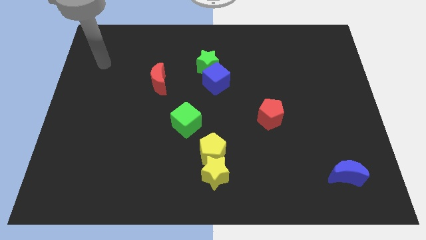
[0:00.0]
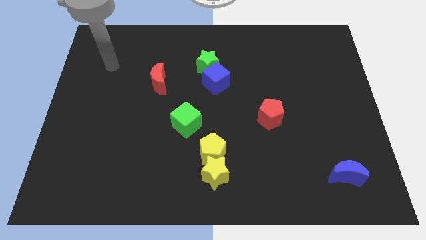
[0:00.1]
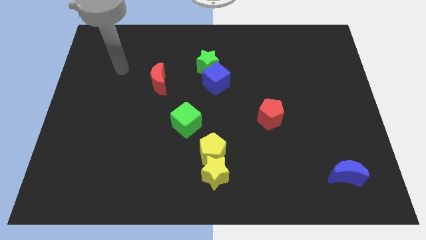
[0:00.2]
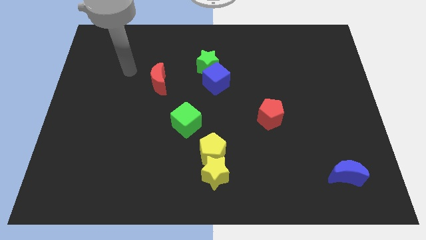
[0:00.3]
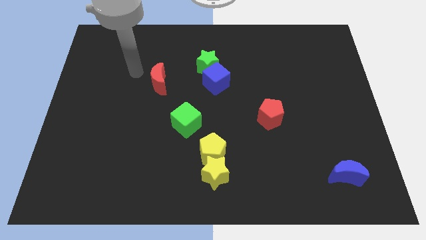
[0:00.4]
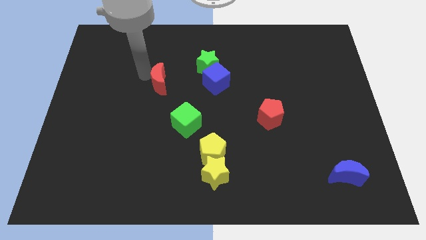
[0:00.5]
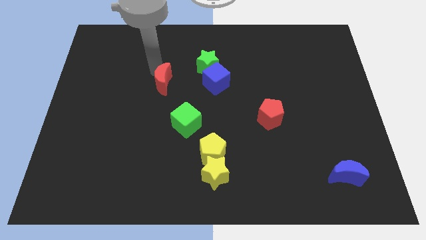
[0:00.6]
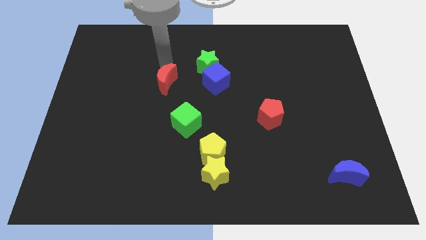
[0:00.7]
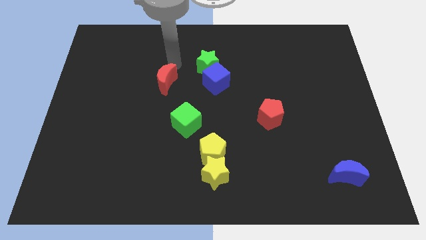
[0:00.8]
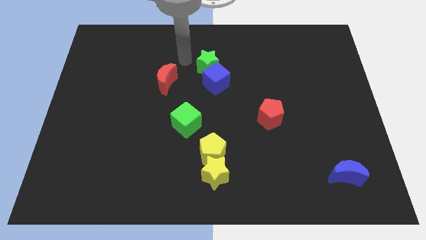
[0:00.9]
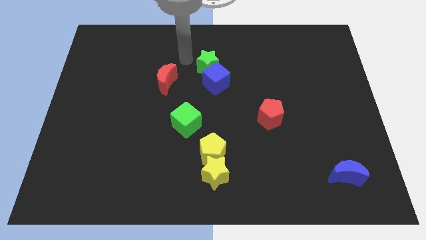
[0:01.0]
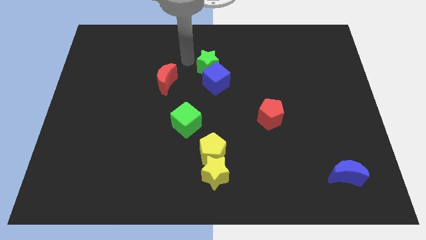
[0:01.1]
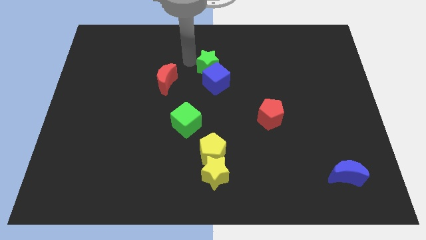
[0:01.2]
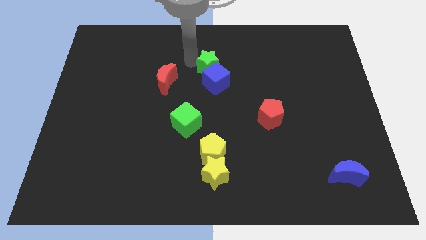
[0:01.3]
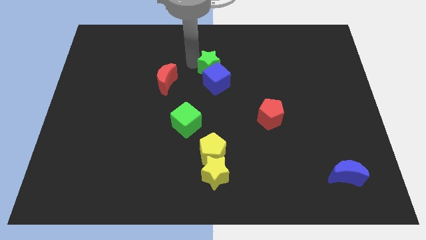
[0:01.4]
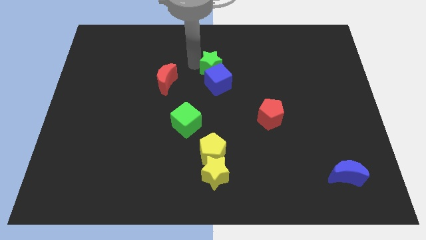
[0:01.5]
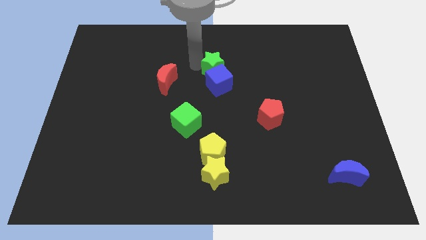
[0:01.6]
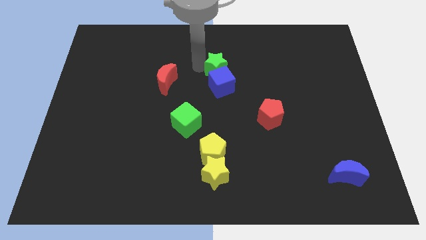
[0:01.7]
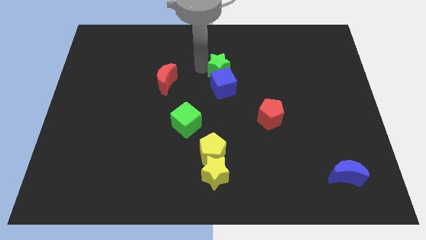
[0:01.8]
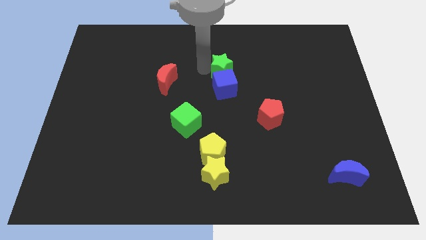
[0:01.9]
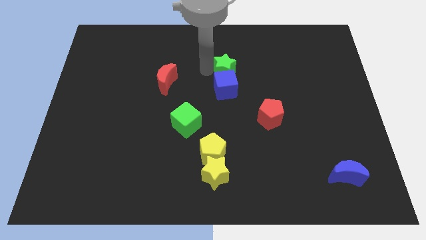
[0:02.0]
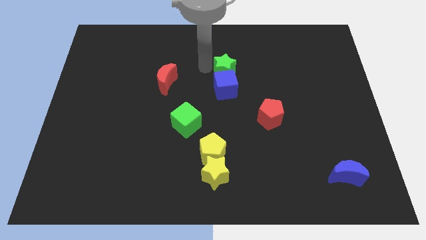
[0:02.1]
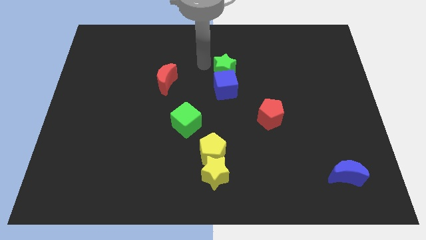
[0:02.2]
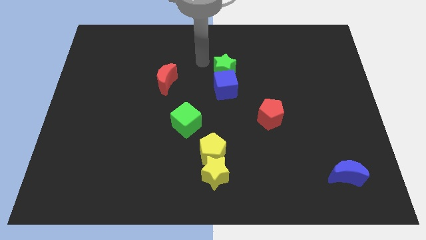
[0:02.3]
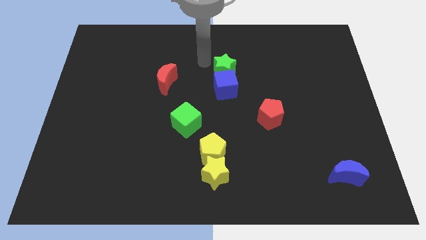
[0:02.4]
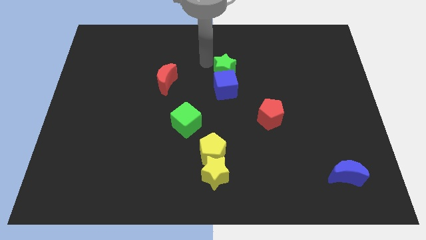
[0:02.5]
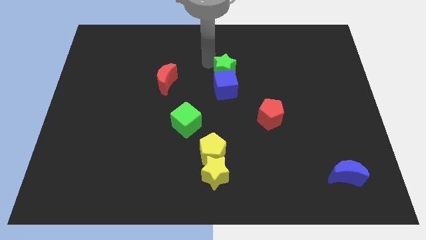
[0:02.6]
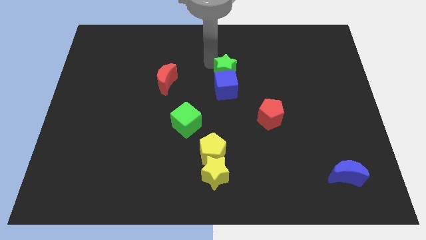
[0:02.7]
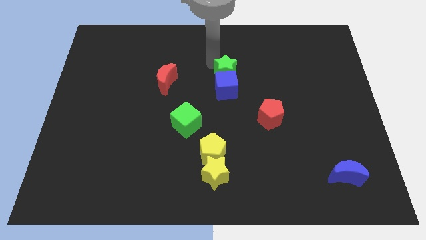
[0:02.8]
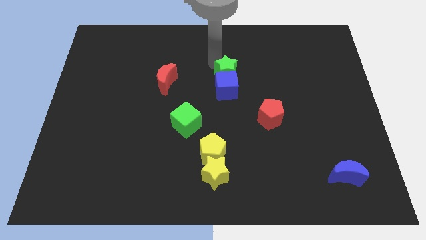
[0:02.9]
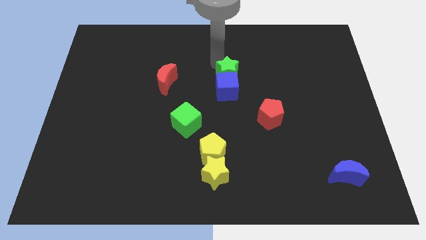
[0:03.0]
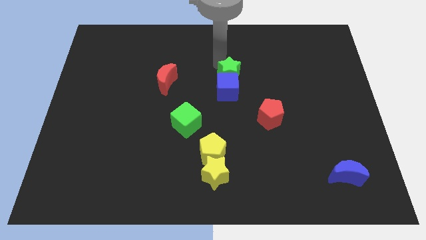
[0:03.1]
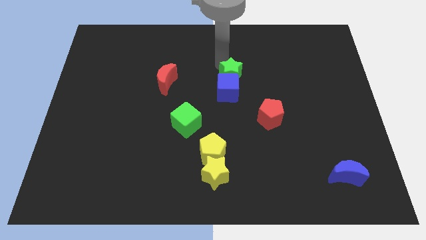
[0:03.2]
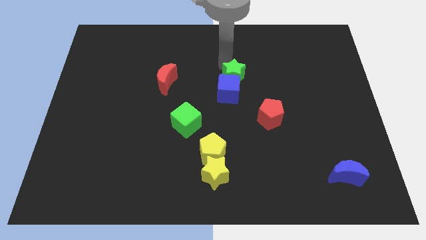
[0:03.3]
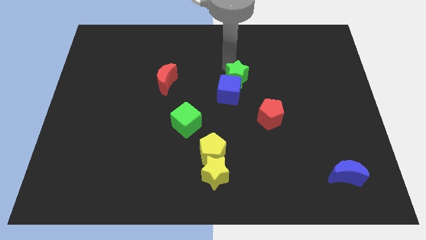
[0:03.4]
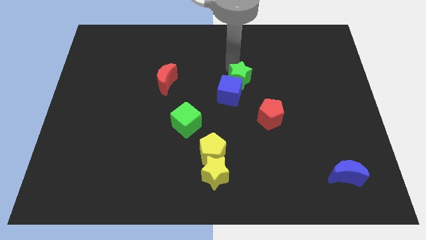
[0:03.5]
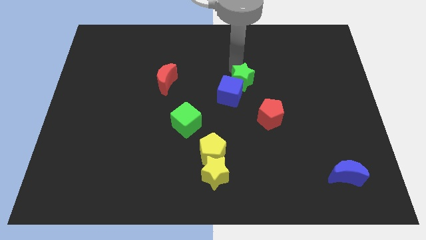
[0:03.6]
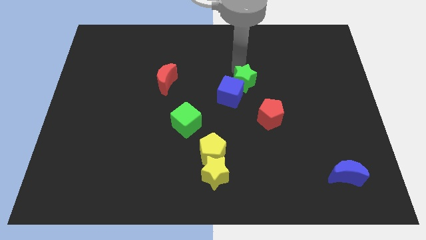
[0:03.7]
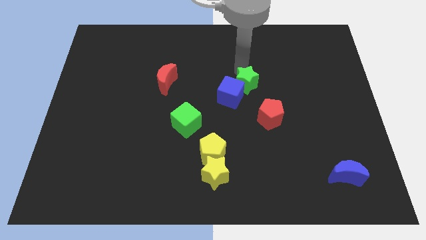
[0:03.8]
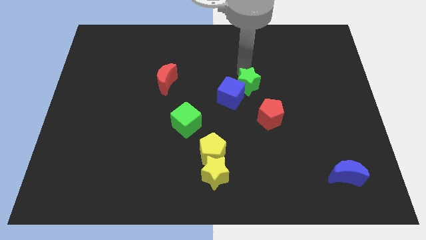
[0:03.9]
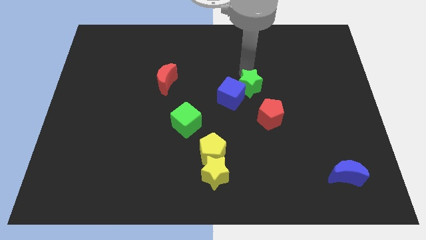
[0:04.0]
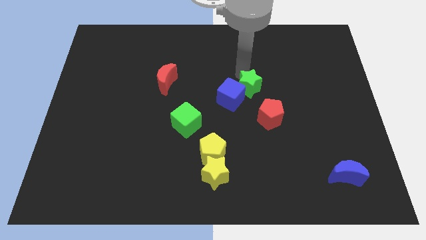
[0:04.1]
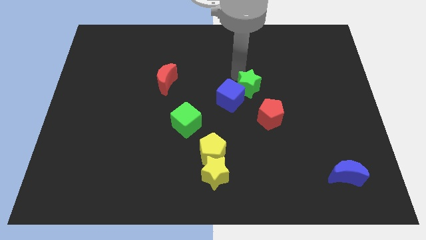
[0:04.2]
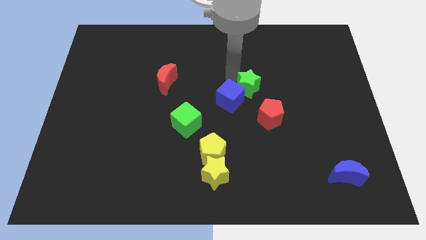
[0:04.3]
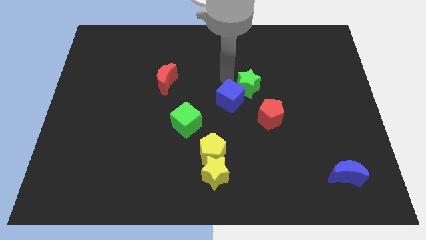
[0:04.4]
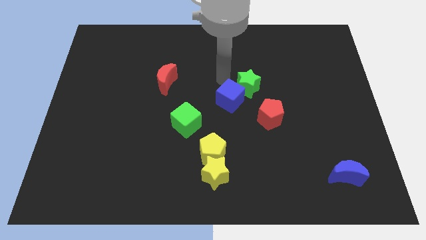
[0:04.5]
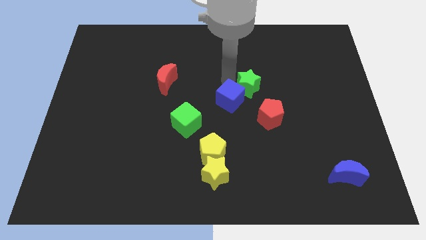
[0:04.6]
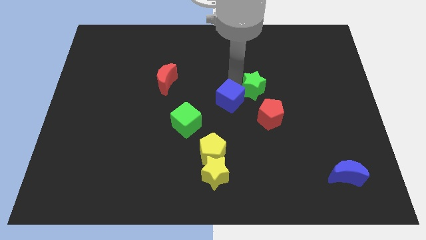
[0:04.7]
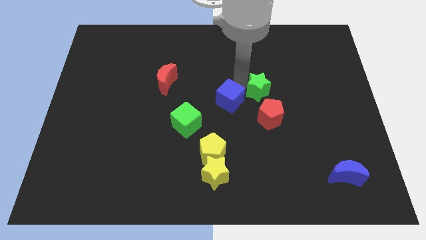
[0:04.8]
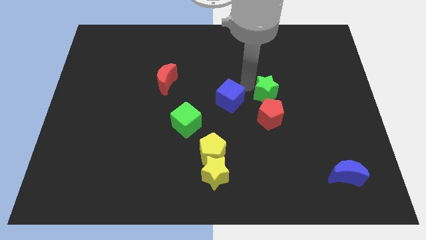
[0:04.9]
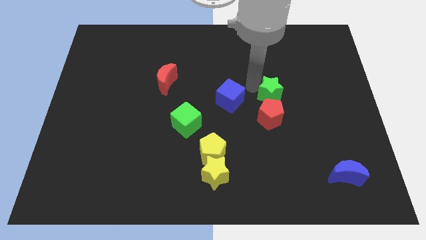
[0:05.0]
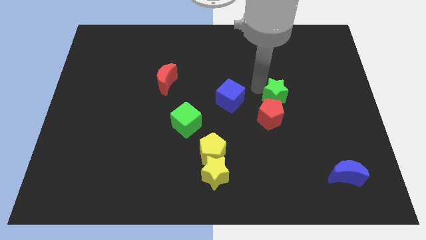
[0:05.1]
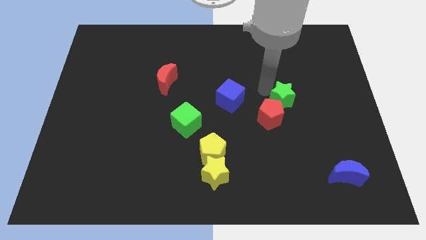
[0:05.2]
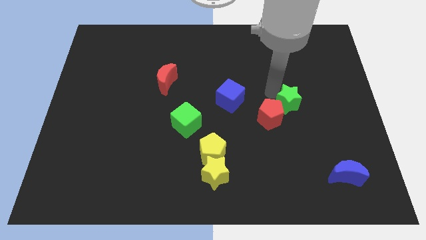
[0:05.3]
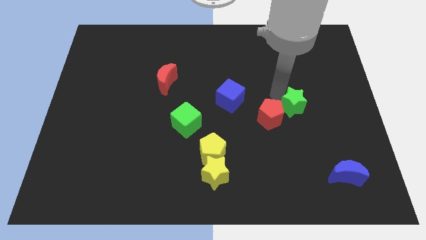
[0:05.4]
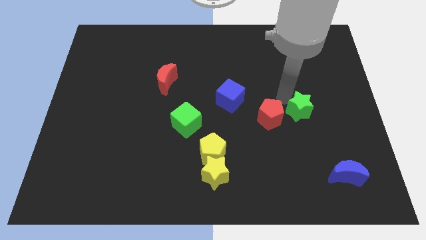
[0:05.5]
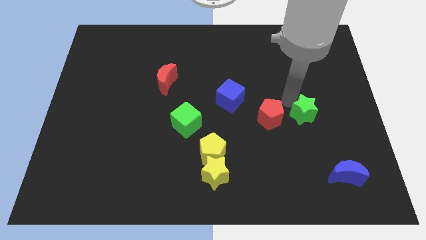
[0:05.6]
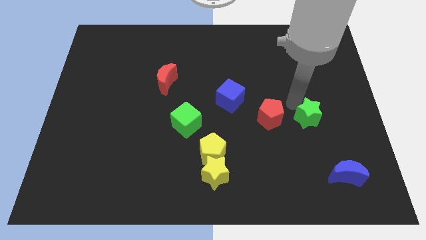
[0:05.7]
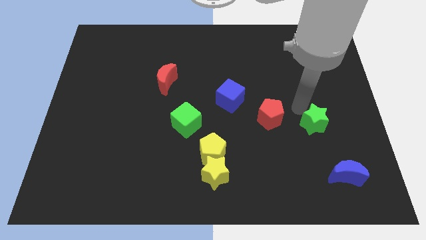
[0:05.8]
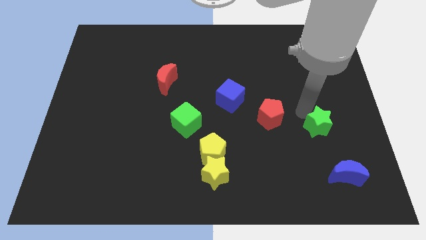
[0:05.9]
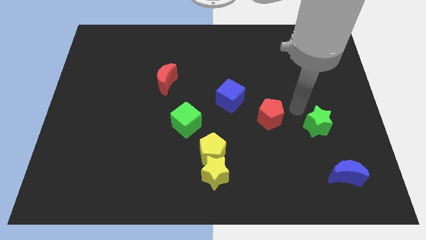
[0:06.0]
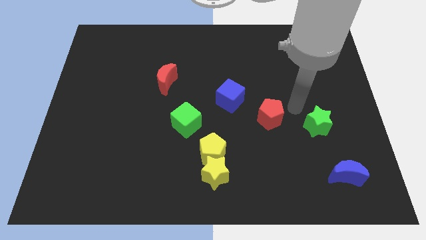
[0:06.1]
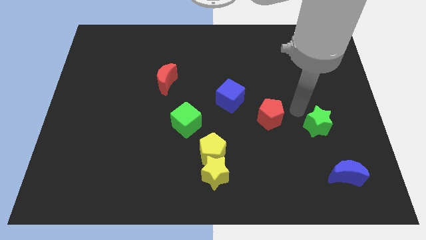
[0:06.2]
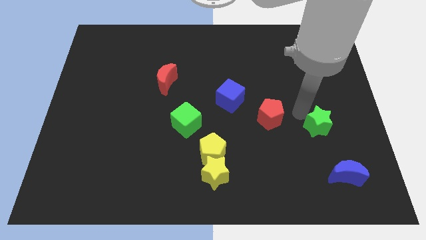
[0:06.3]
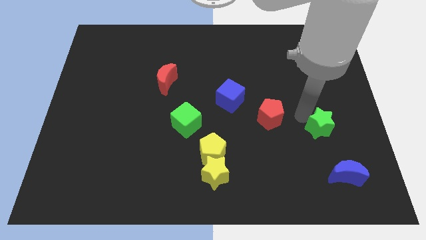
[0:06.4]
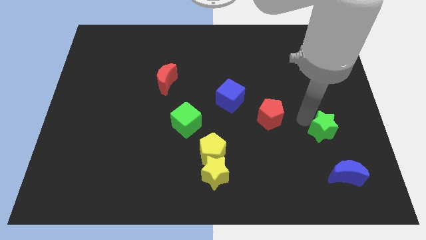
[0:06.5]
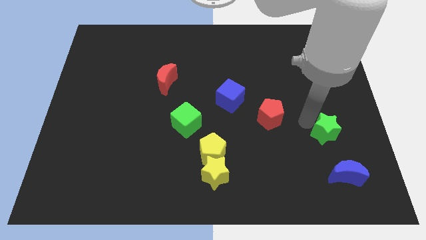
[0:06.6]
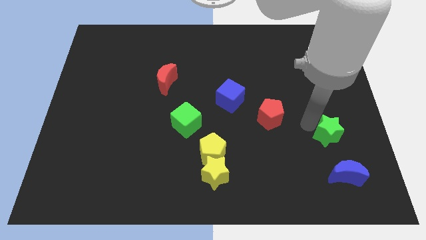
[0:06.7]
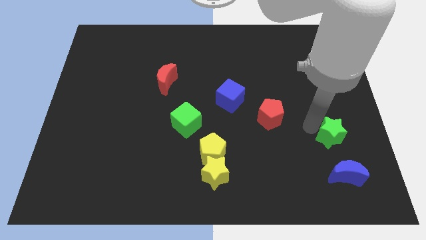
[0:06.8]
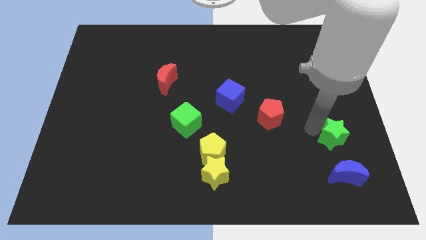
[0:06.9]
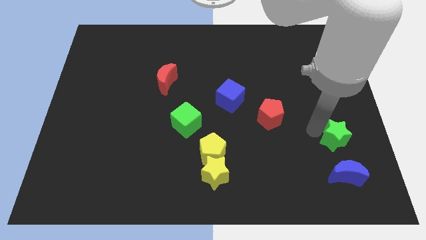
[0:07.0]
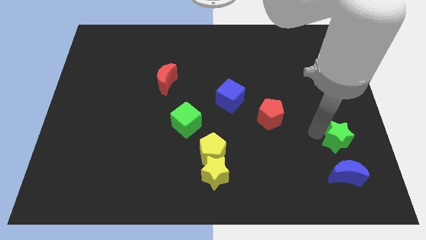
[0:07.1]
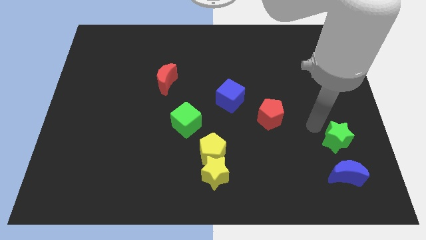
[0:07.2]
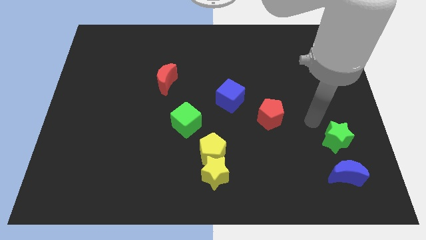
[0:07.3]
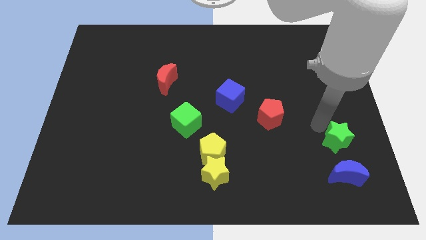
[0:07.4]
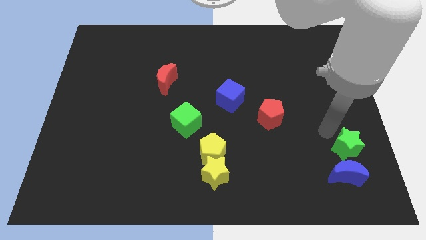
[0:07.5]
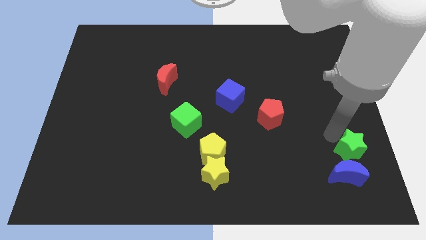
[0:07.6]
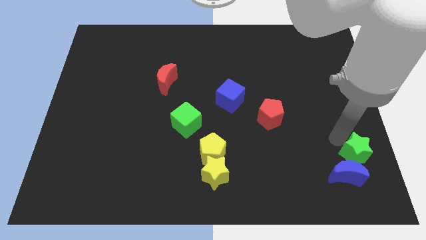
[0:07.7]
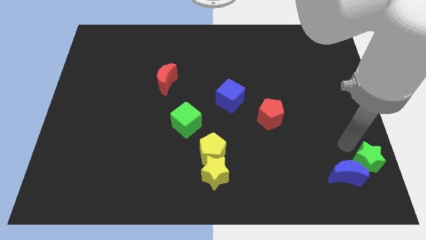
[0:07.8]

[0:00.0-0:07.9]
slide the green star to the bottom right

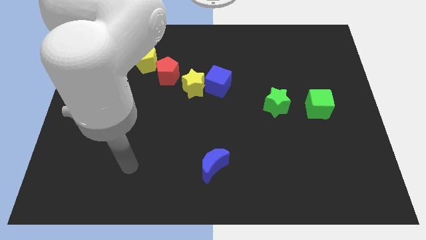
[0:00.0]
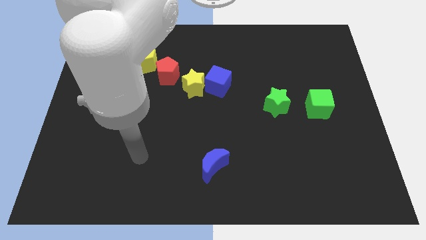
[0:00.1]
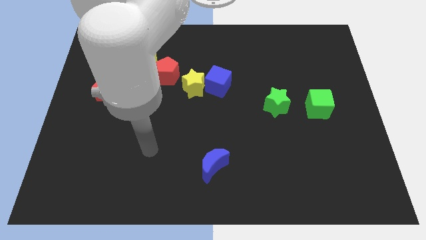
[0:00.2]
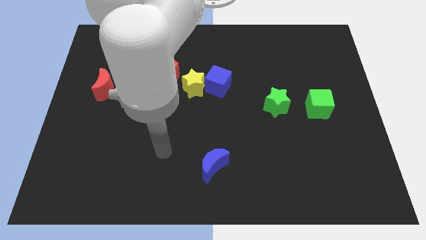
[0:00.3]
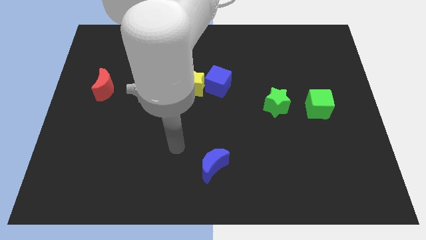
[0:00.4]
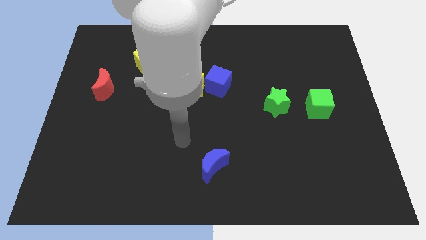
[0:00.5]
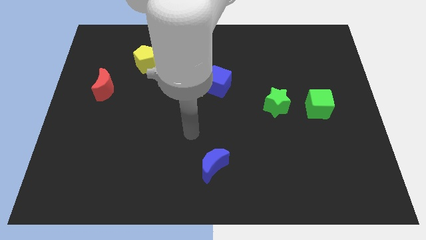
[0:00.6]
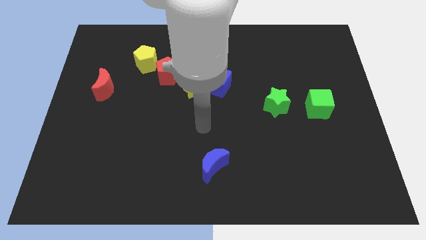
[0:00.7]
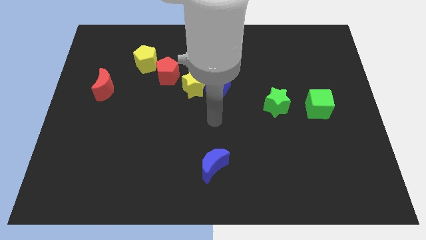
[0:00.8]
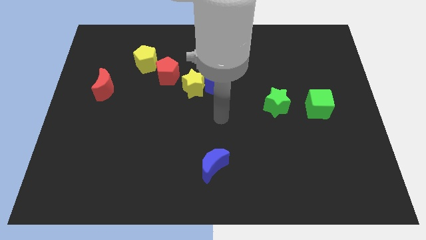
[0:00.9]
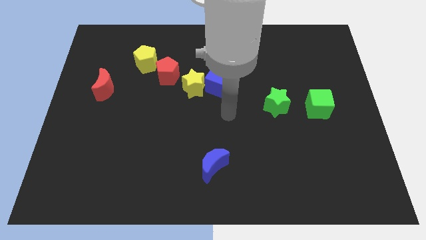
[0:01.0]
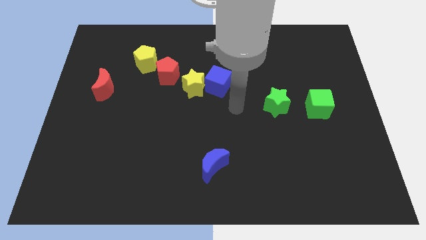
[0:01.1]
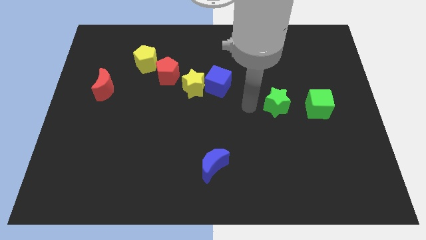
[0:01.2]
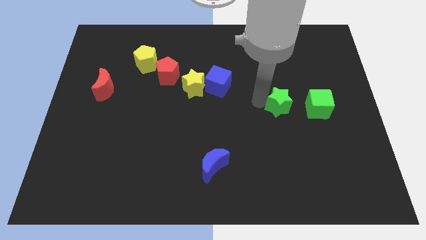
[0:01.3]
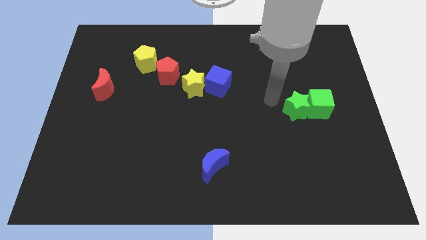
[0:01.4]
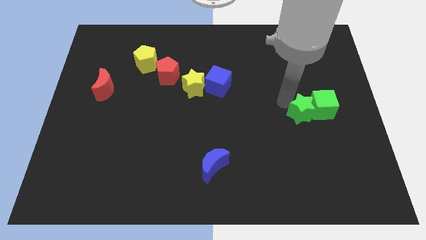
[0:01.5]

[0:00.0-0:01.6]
slide the green cube to the right side
